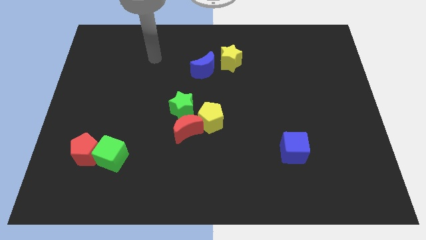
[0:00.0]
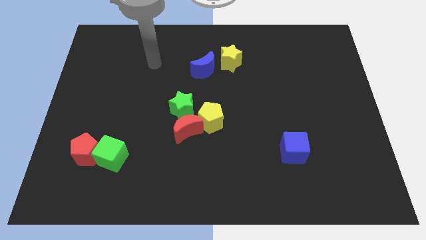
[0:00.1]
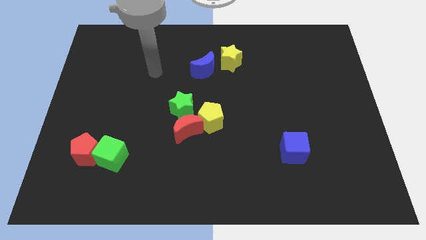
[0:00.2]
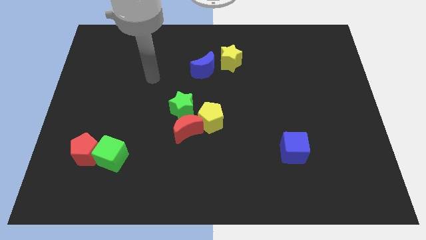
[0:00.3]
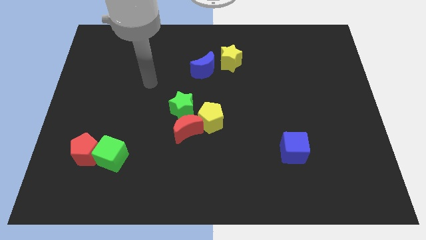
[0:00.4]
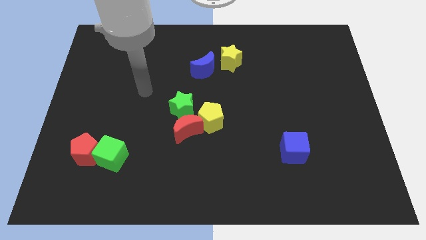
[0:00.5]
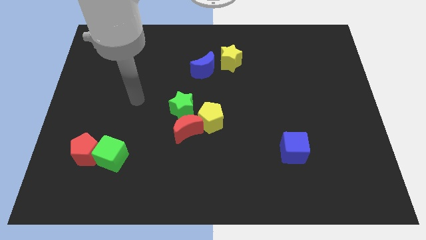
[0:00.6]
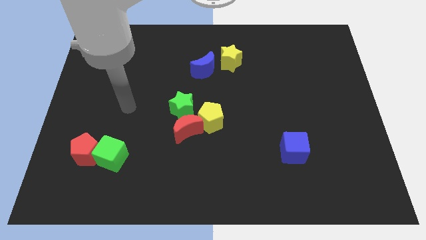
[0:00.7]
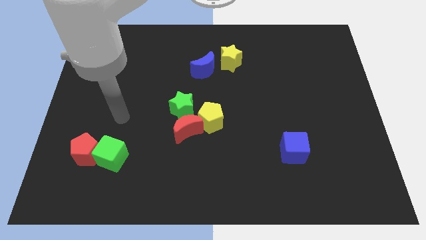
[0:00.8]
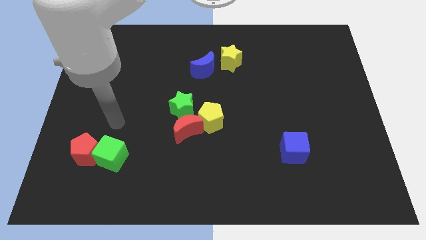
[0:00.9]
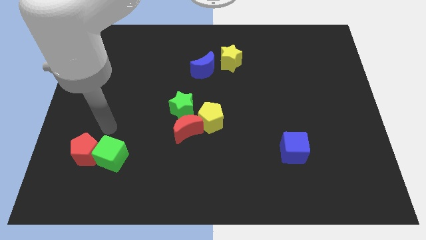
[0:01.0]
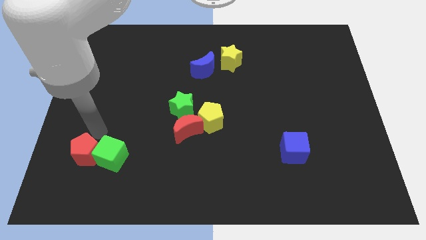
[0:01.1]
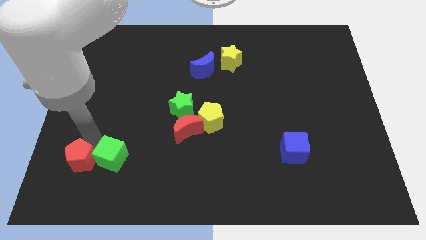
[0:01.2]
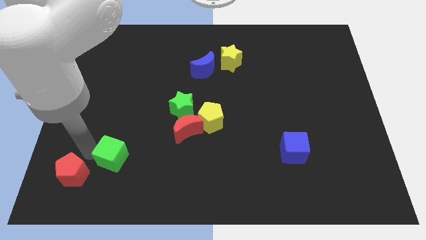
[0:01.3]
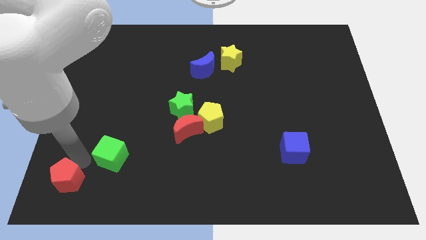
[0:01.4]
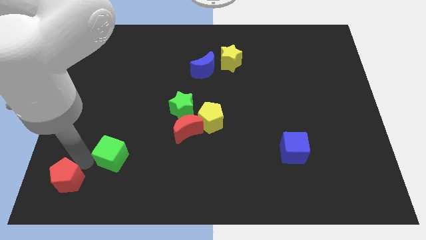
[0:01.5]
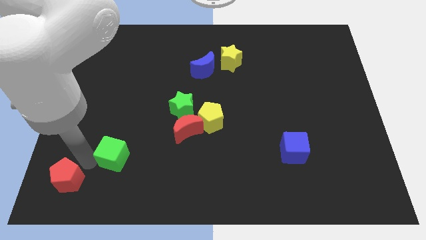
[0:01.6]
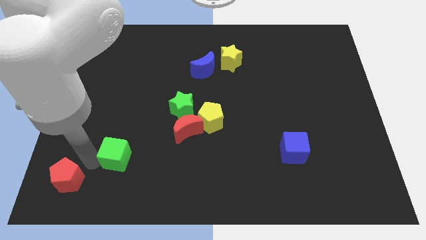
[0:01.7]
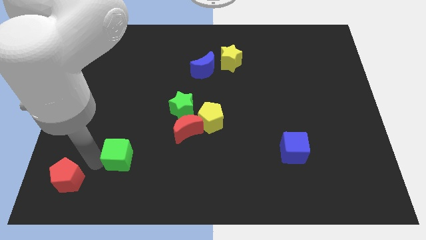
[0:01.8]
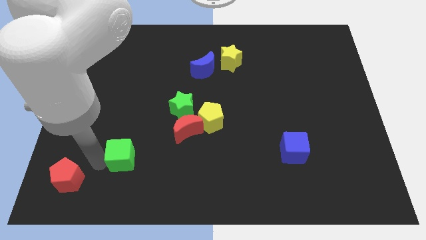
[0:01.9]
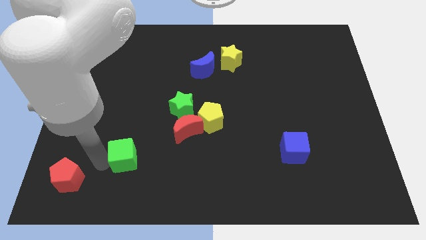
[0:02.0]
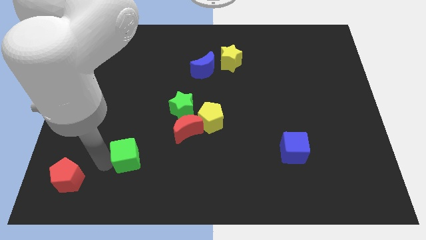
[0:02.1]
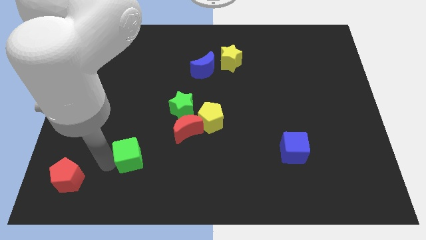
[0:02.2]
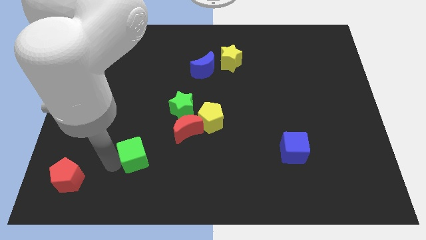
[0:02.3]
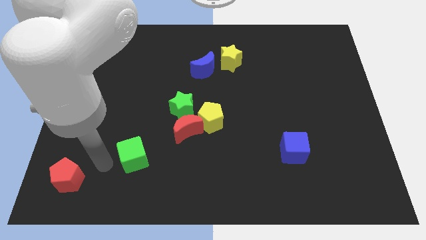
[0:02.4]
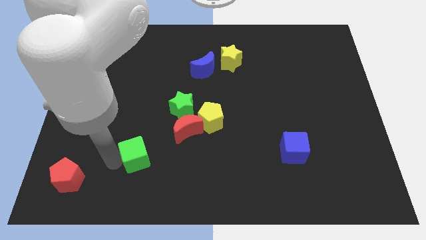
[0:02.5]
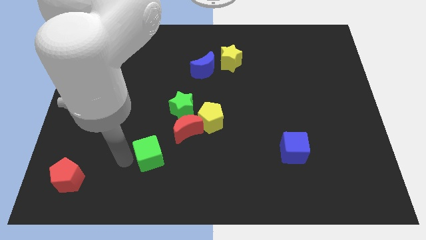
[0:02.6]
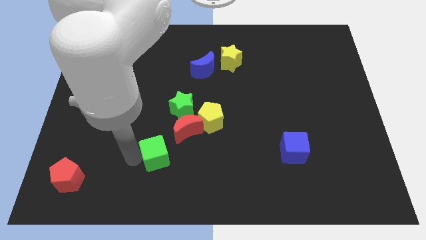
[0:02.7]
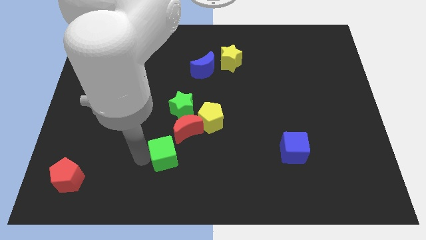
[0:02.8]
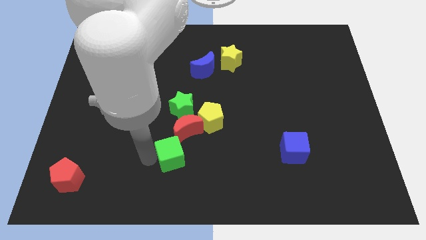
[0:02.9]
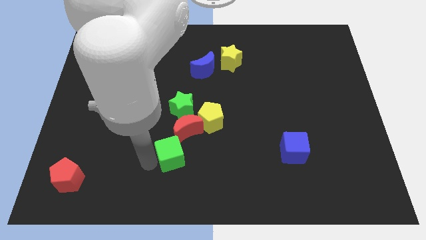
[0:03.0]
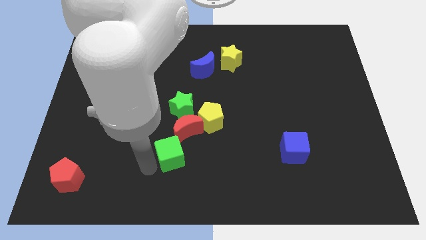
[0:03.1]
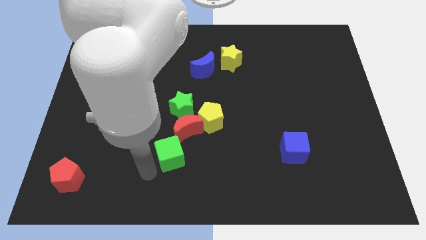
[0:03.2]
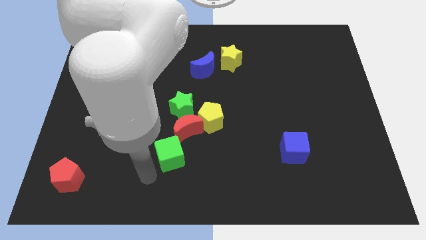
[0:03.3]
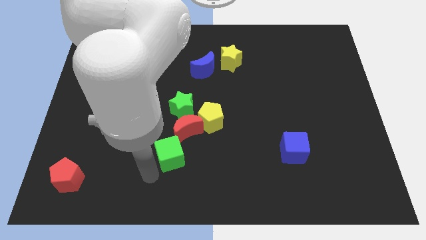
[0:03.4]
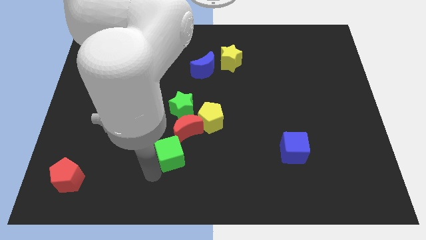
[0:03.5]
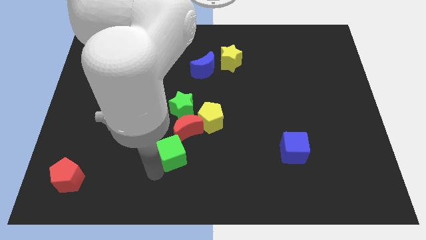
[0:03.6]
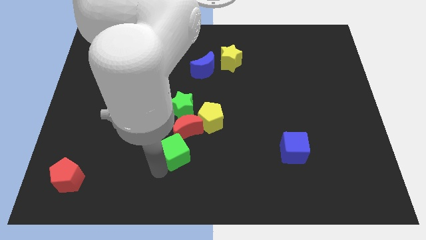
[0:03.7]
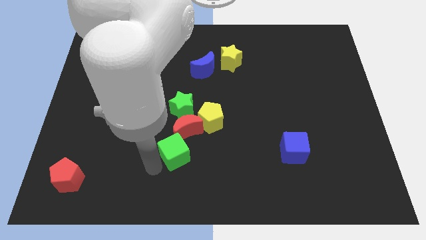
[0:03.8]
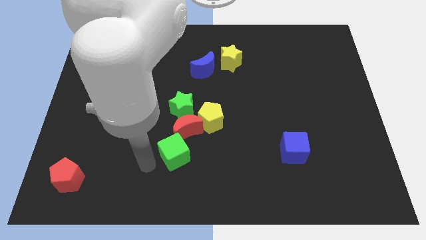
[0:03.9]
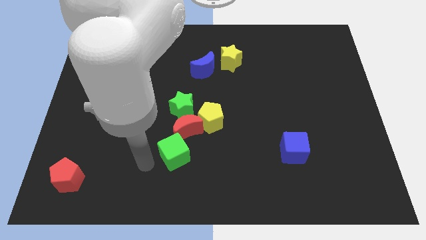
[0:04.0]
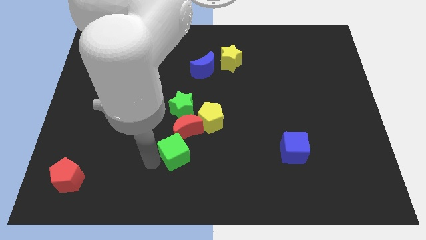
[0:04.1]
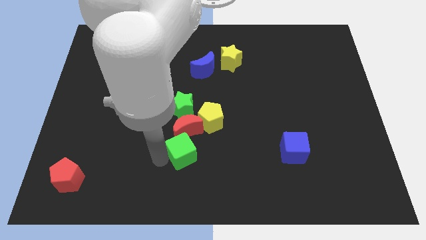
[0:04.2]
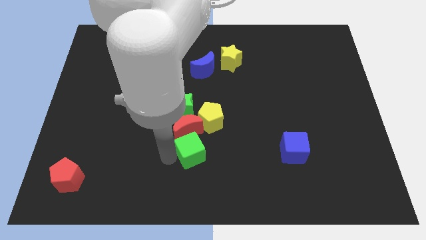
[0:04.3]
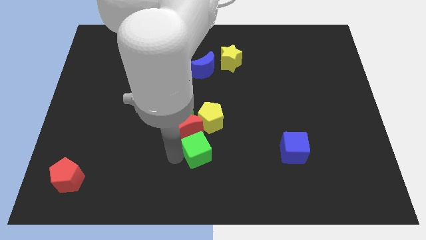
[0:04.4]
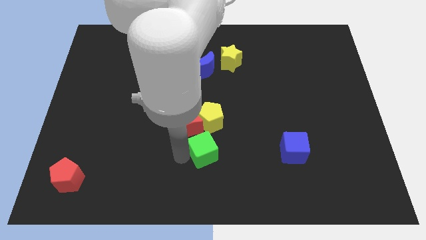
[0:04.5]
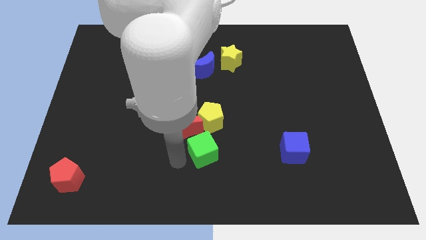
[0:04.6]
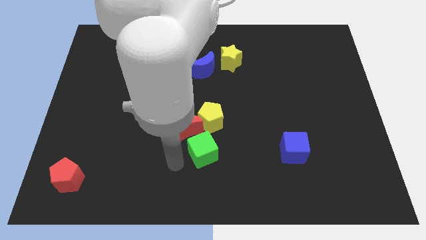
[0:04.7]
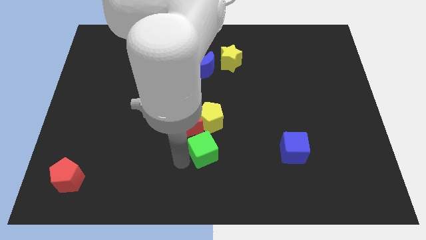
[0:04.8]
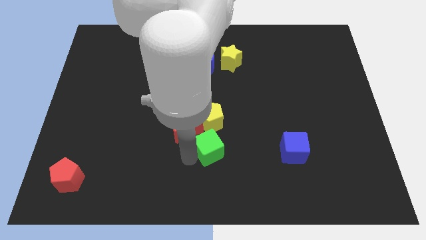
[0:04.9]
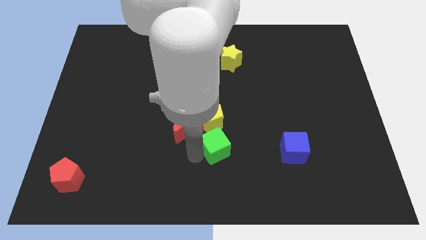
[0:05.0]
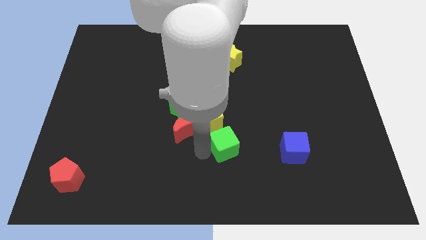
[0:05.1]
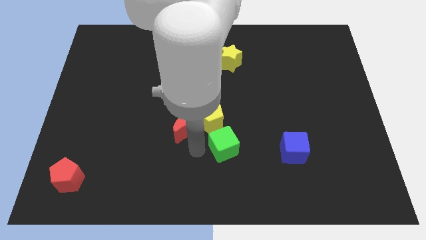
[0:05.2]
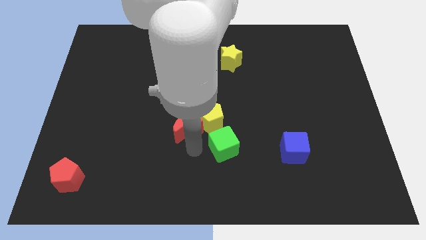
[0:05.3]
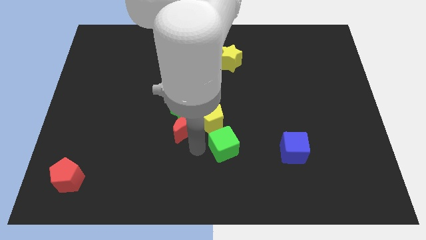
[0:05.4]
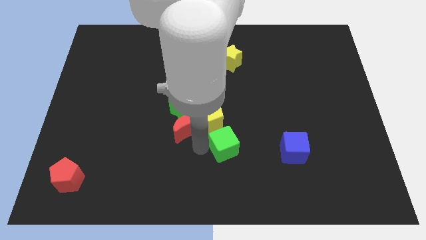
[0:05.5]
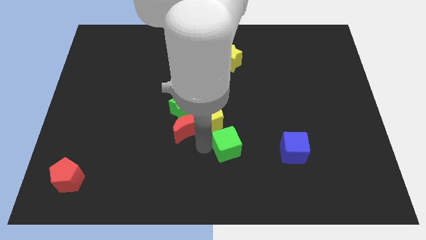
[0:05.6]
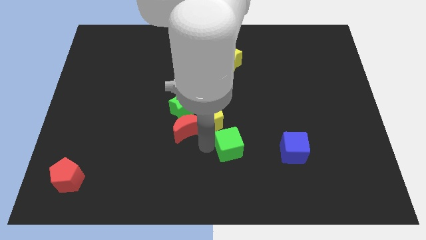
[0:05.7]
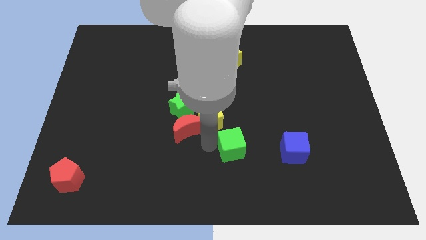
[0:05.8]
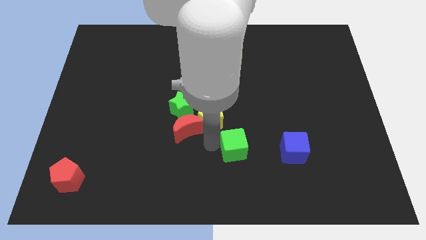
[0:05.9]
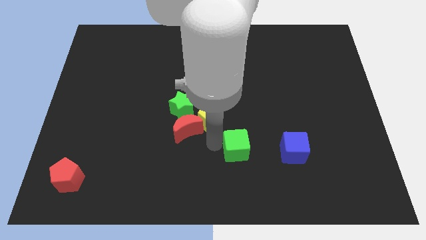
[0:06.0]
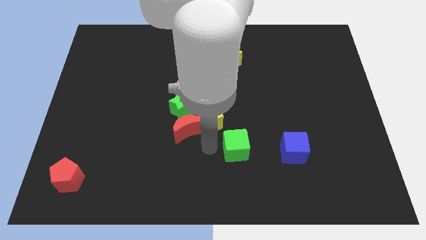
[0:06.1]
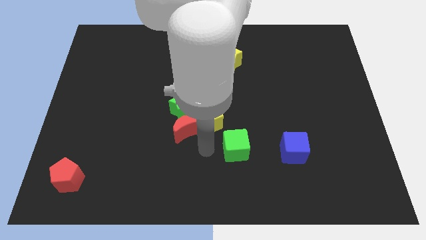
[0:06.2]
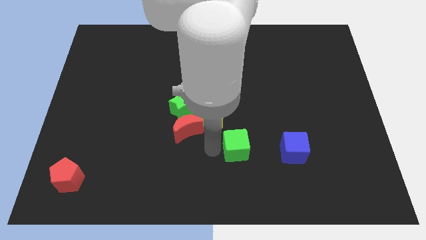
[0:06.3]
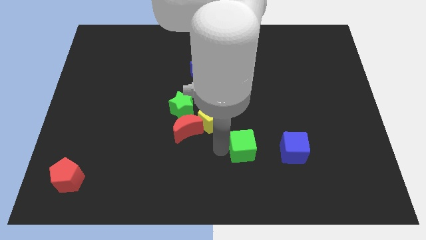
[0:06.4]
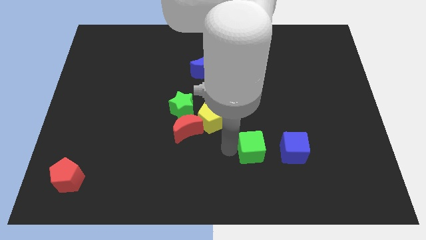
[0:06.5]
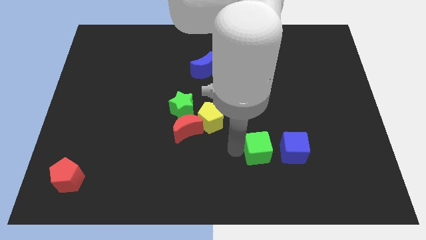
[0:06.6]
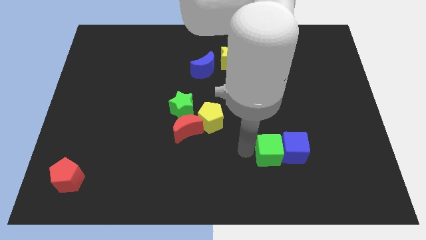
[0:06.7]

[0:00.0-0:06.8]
push the green cube to the blue cube

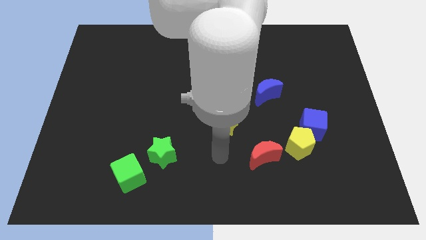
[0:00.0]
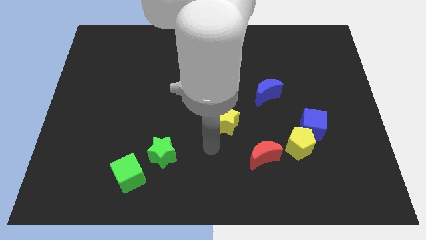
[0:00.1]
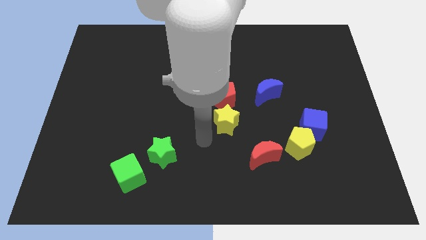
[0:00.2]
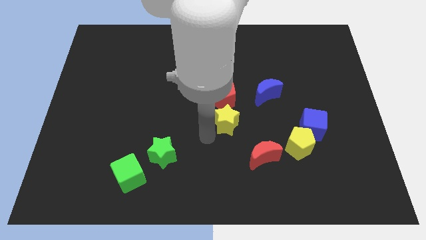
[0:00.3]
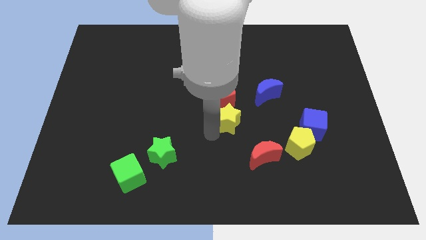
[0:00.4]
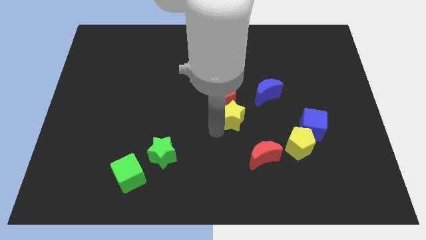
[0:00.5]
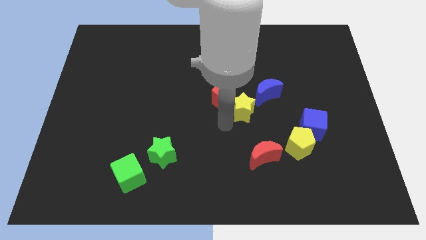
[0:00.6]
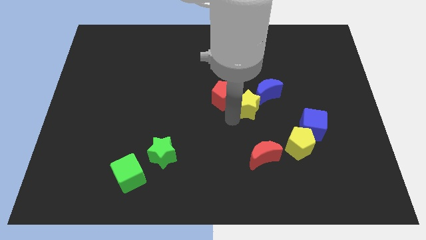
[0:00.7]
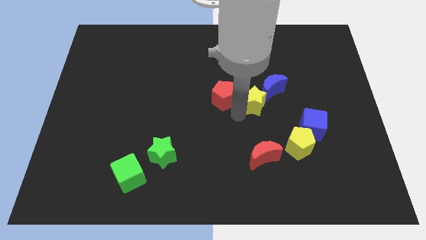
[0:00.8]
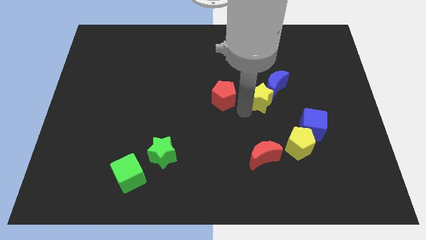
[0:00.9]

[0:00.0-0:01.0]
move the yellow star to the blue moon
